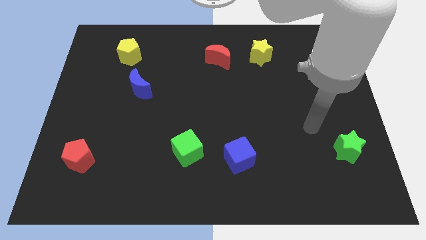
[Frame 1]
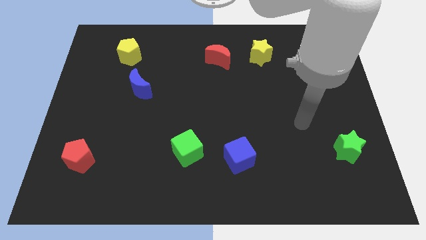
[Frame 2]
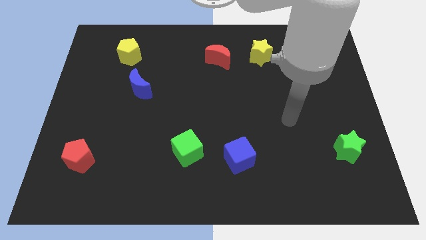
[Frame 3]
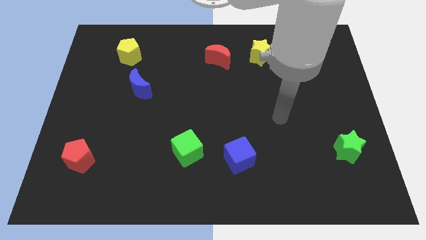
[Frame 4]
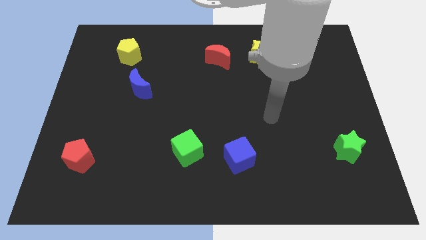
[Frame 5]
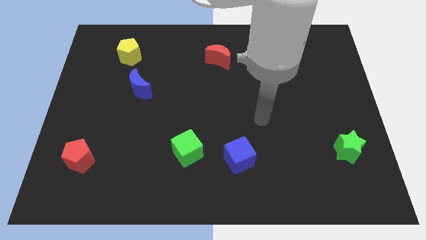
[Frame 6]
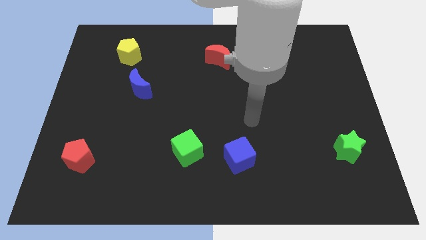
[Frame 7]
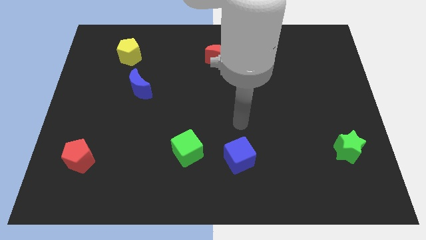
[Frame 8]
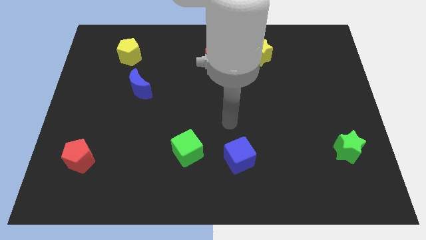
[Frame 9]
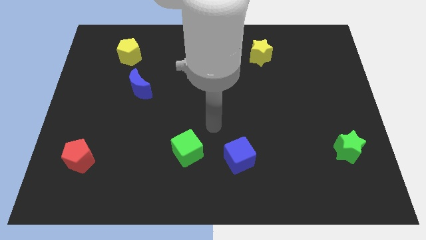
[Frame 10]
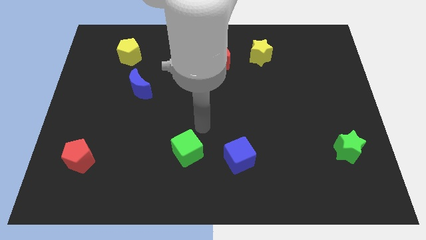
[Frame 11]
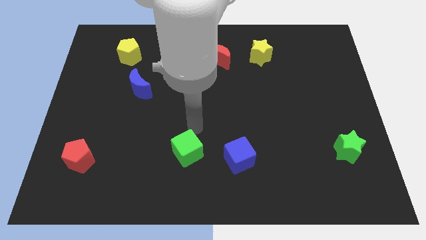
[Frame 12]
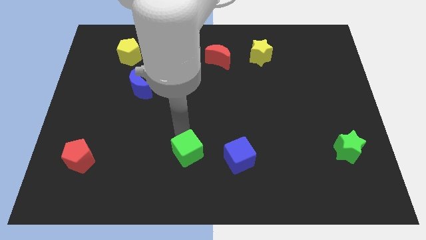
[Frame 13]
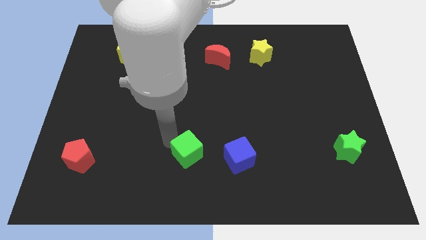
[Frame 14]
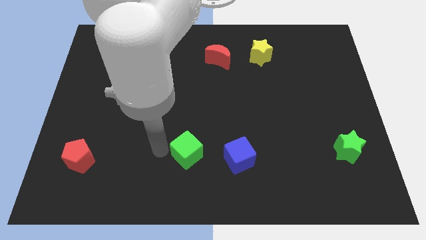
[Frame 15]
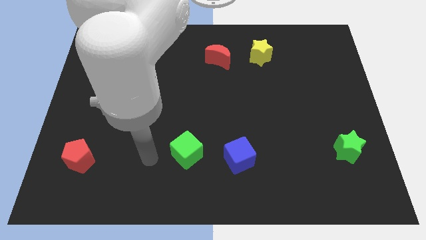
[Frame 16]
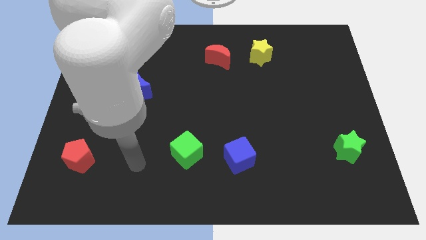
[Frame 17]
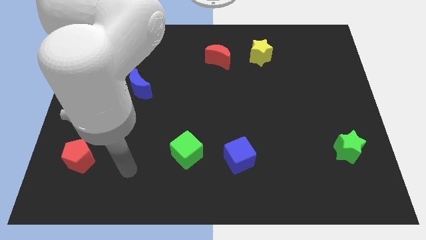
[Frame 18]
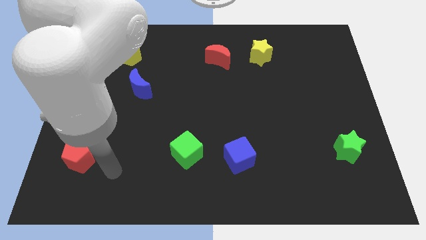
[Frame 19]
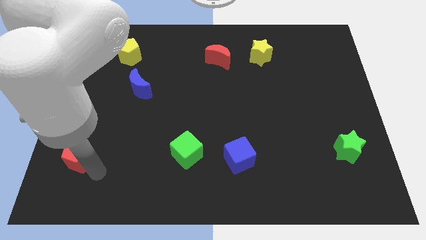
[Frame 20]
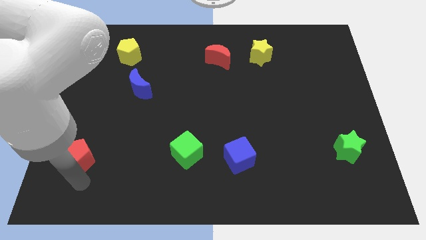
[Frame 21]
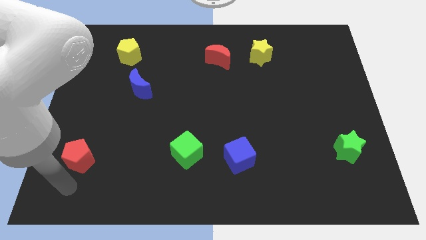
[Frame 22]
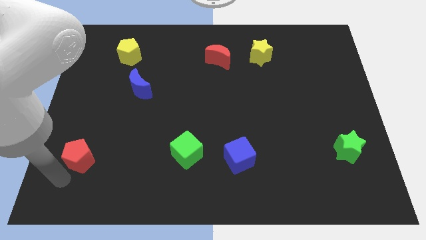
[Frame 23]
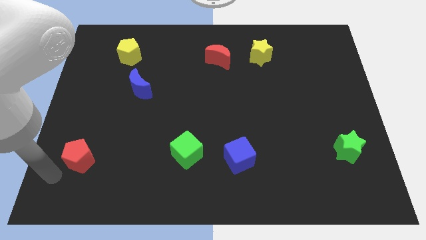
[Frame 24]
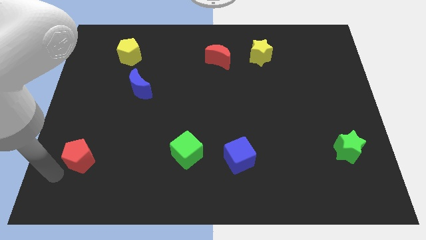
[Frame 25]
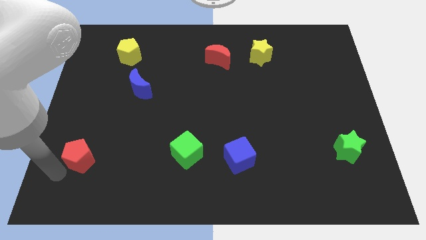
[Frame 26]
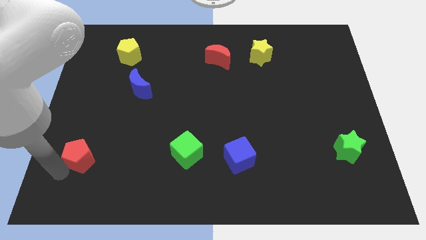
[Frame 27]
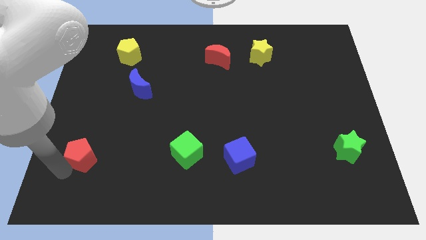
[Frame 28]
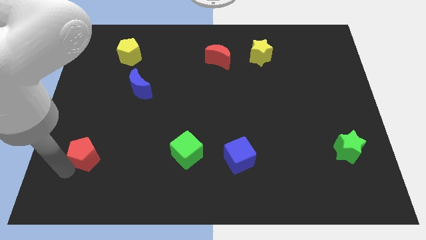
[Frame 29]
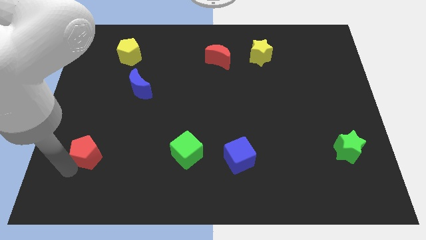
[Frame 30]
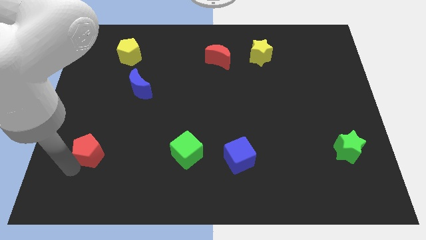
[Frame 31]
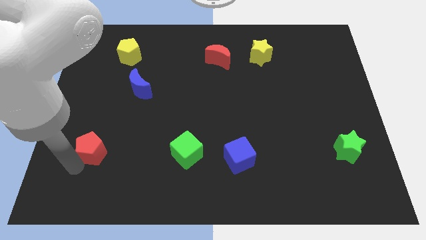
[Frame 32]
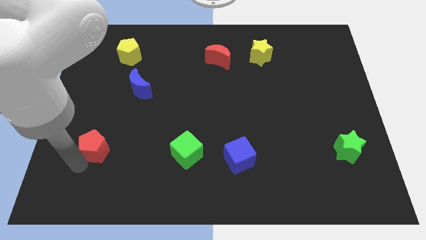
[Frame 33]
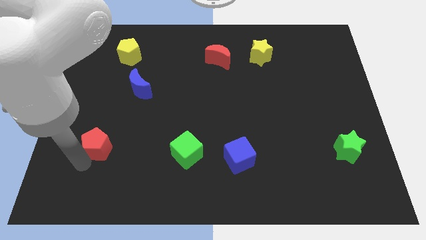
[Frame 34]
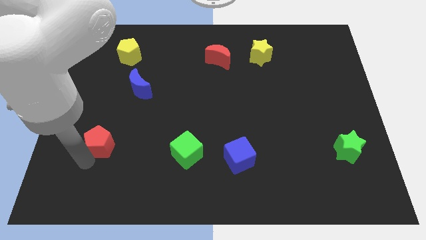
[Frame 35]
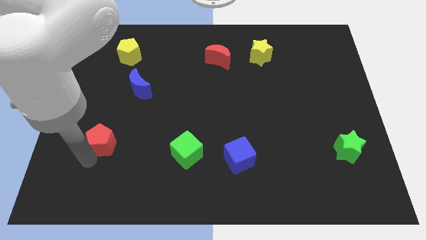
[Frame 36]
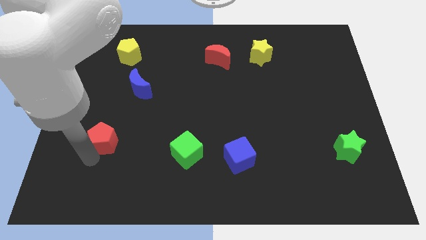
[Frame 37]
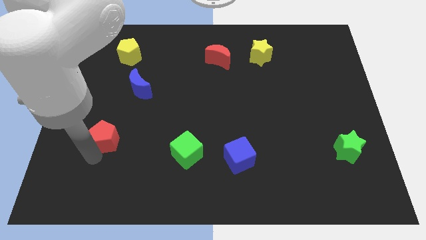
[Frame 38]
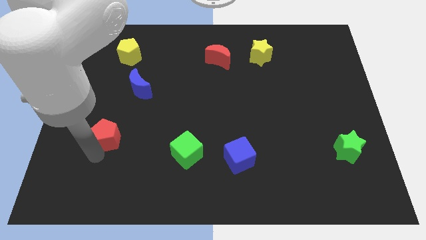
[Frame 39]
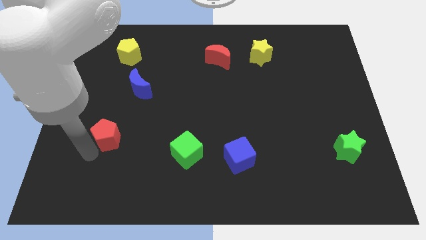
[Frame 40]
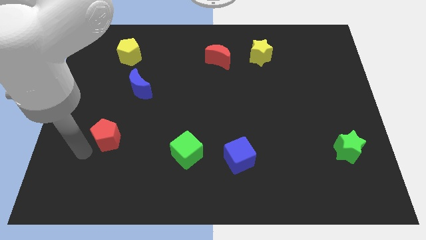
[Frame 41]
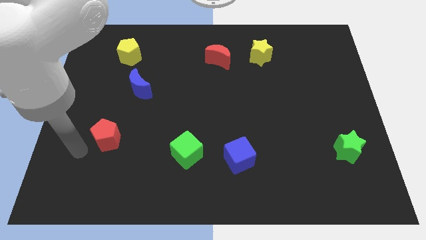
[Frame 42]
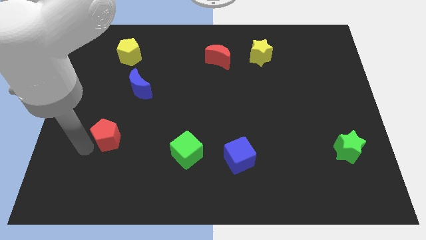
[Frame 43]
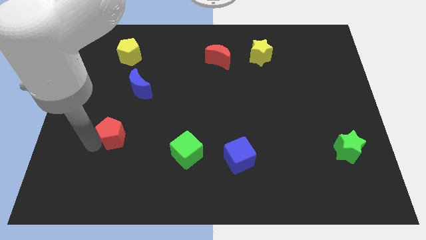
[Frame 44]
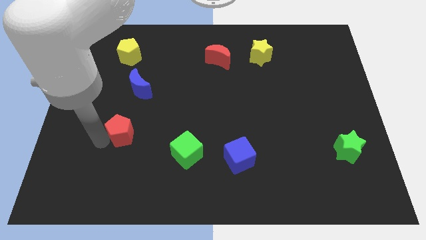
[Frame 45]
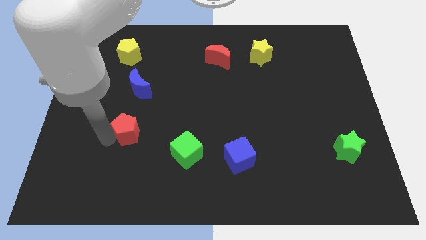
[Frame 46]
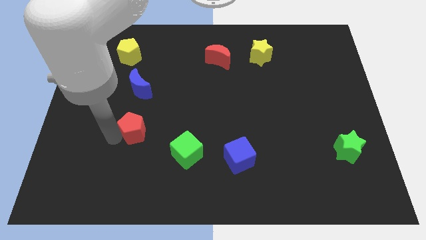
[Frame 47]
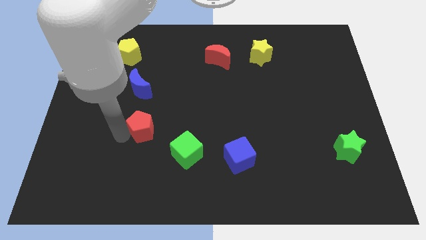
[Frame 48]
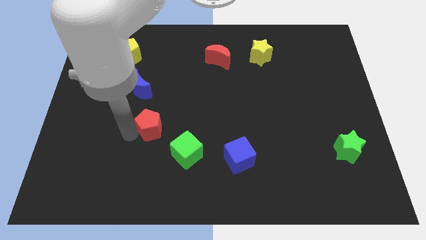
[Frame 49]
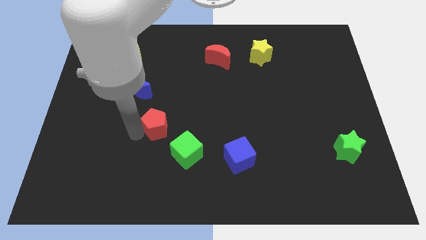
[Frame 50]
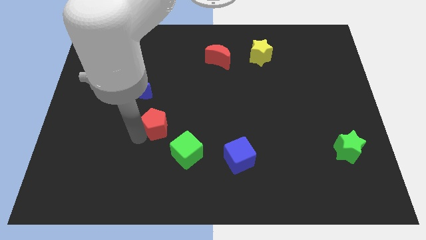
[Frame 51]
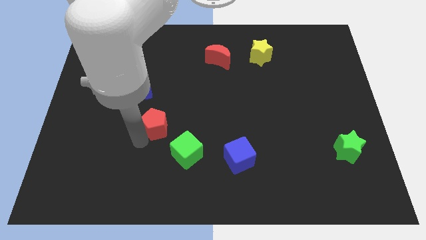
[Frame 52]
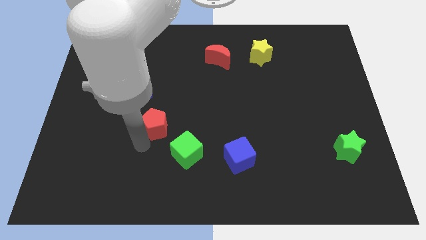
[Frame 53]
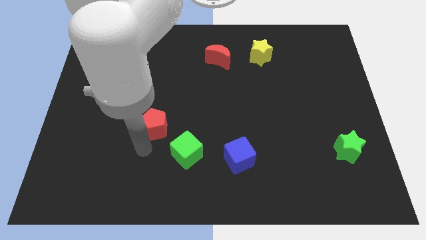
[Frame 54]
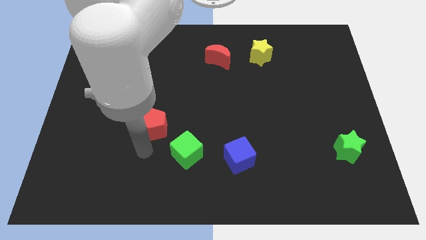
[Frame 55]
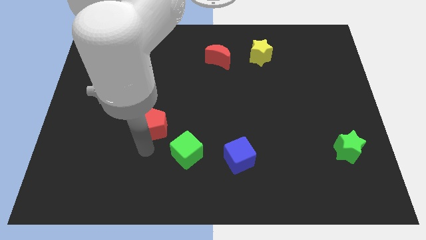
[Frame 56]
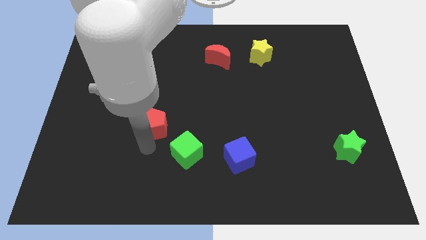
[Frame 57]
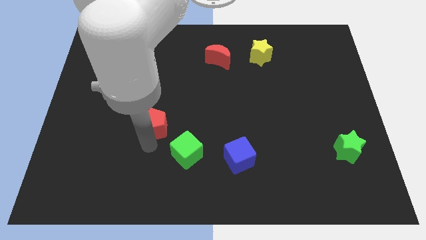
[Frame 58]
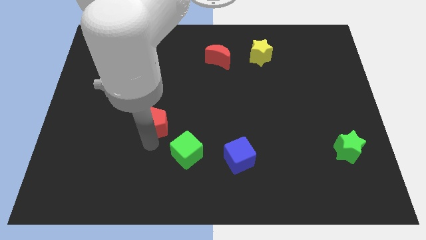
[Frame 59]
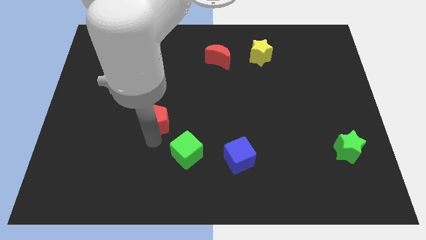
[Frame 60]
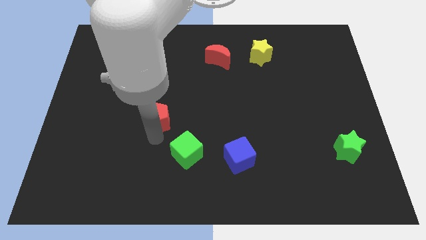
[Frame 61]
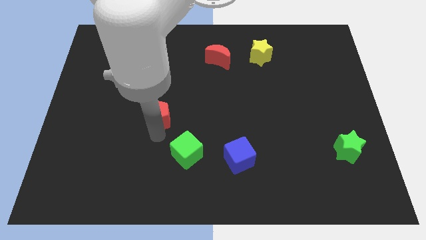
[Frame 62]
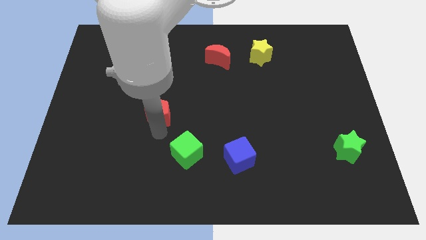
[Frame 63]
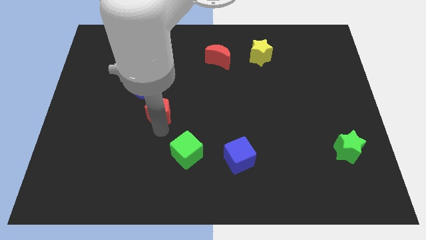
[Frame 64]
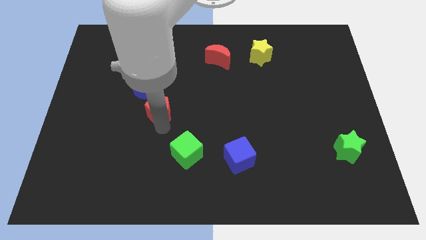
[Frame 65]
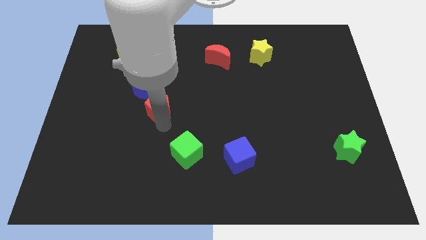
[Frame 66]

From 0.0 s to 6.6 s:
push the red pentagon up and to the right diagonally

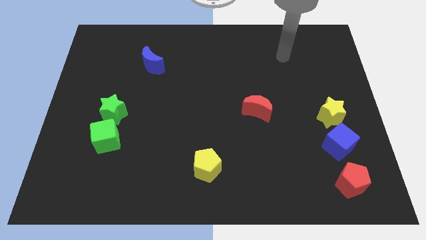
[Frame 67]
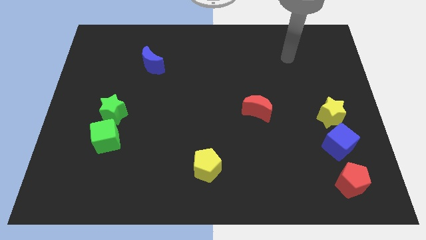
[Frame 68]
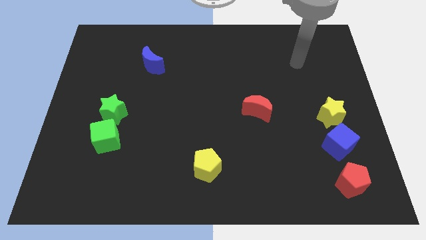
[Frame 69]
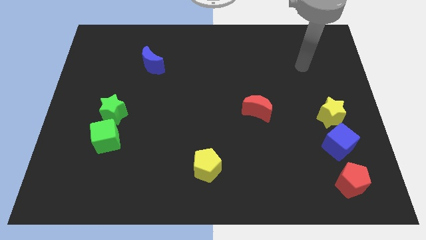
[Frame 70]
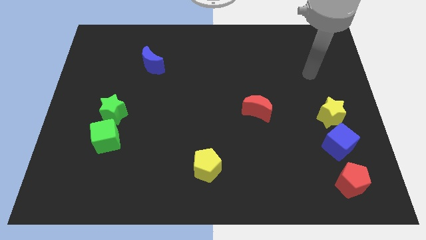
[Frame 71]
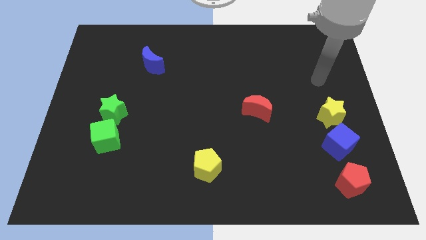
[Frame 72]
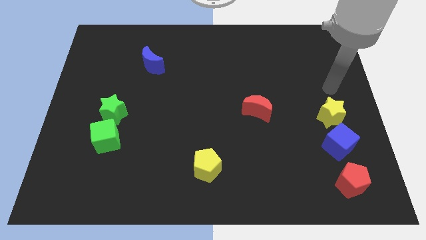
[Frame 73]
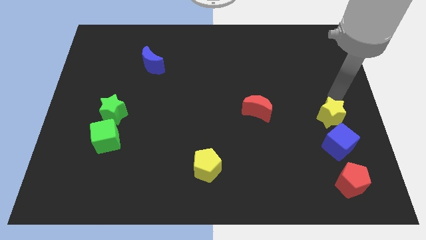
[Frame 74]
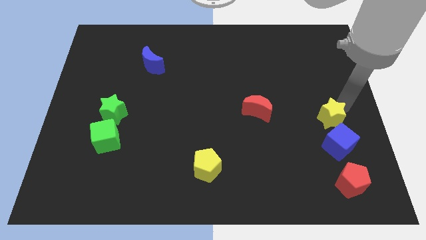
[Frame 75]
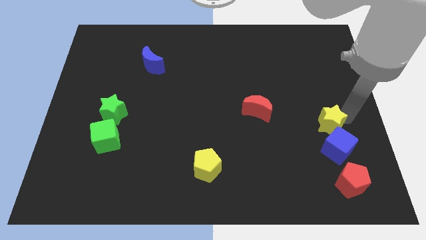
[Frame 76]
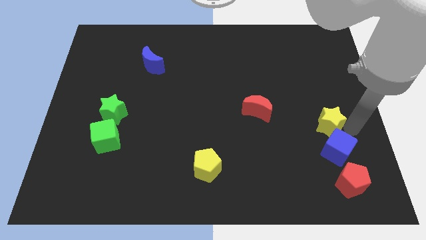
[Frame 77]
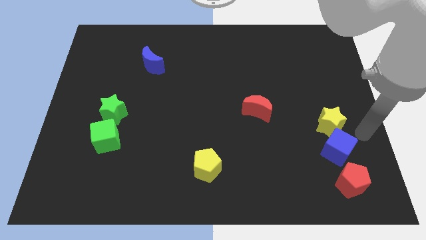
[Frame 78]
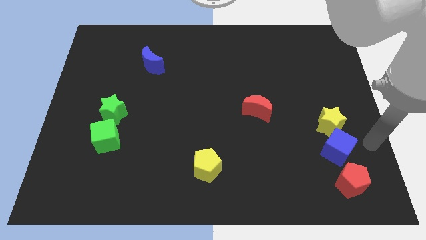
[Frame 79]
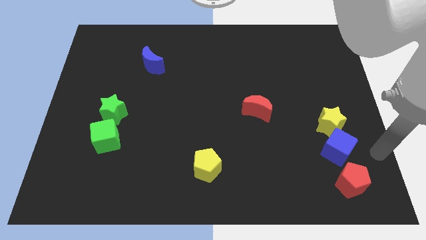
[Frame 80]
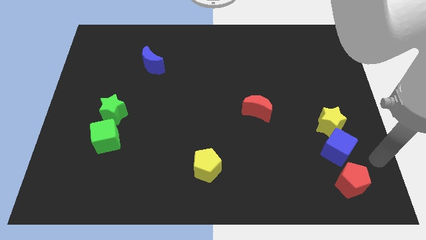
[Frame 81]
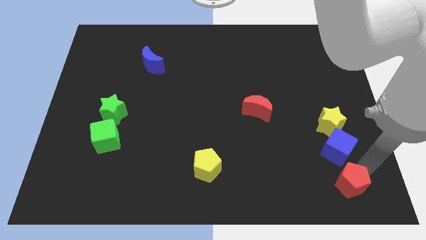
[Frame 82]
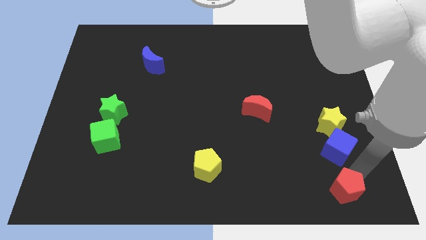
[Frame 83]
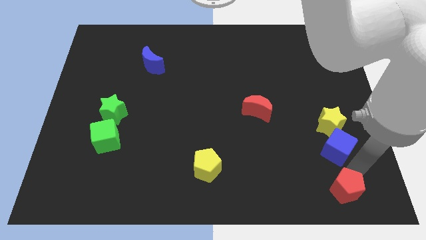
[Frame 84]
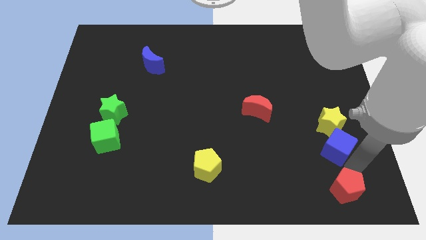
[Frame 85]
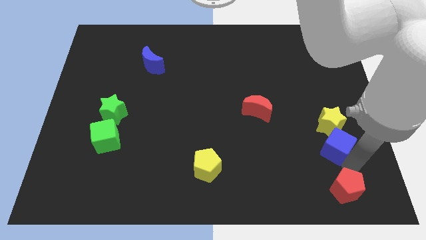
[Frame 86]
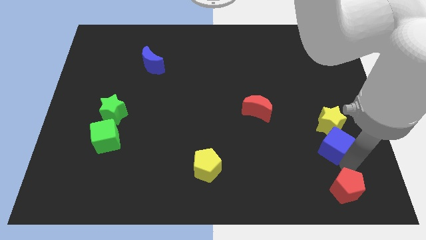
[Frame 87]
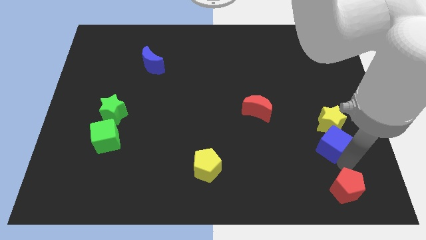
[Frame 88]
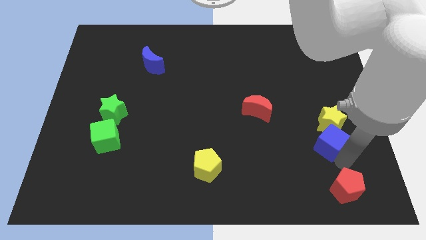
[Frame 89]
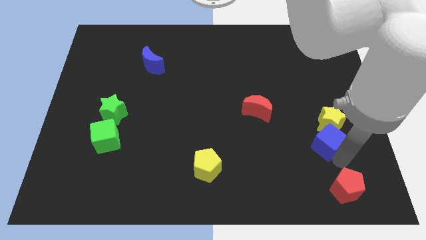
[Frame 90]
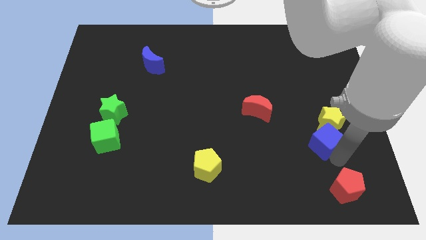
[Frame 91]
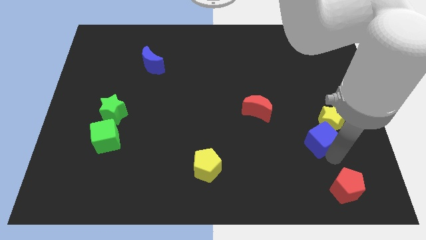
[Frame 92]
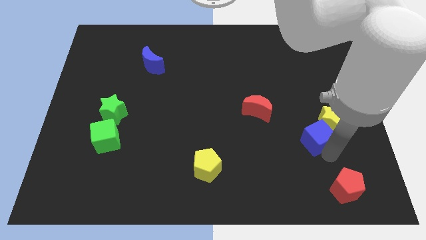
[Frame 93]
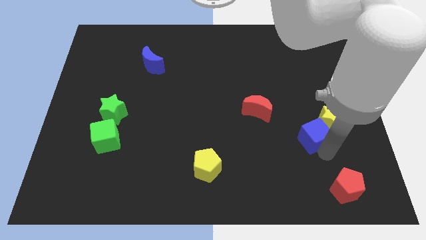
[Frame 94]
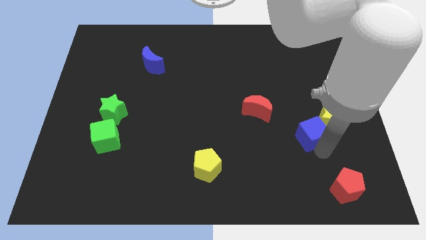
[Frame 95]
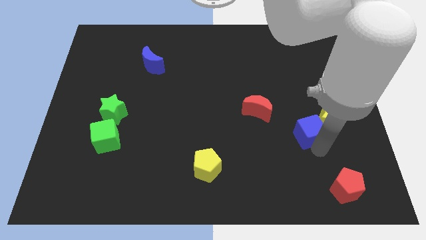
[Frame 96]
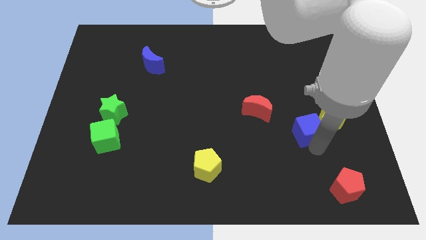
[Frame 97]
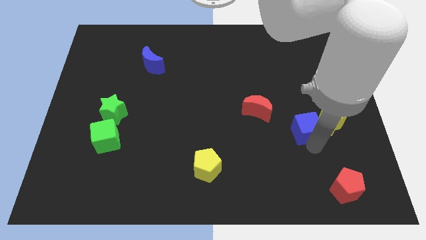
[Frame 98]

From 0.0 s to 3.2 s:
slide the blue cube a little bit up and then left
